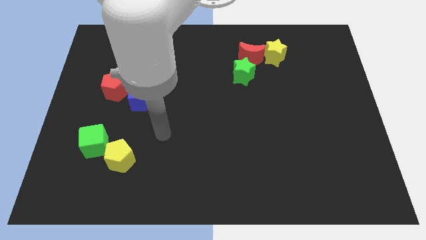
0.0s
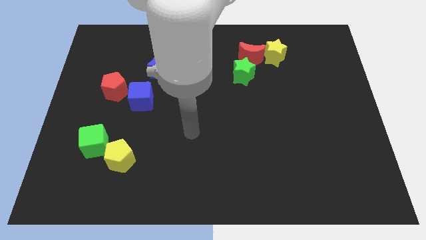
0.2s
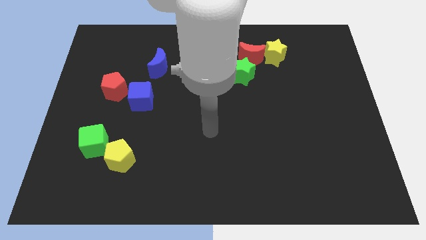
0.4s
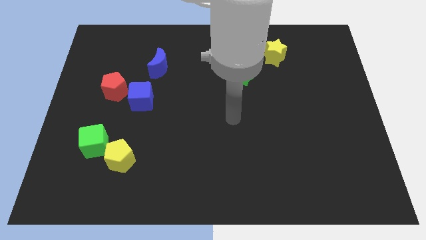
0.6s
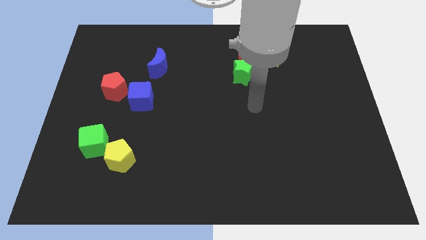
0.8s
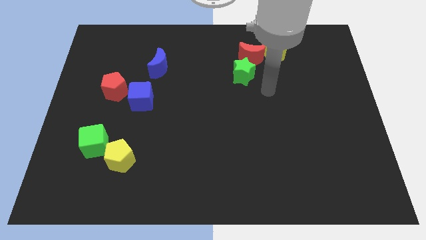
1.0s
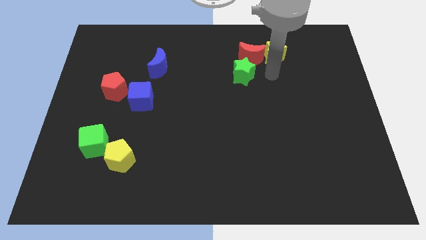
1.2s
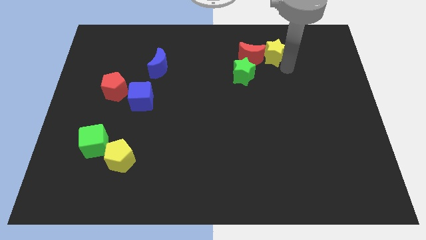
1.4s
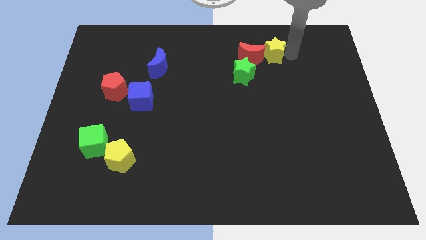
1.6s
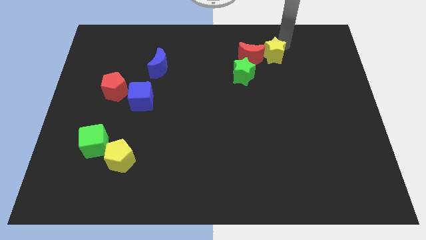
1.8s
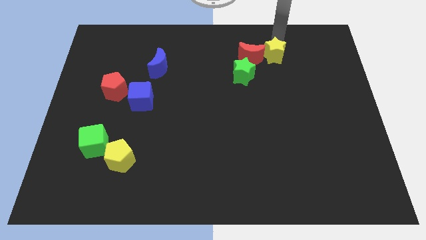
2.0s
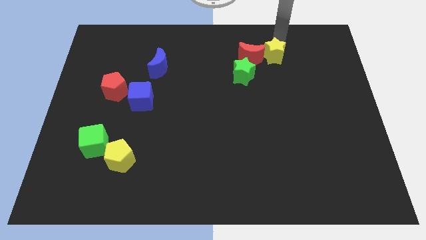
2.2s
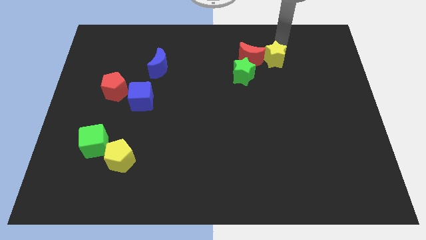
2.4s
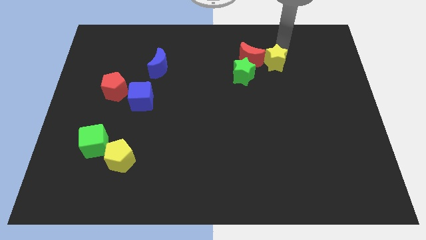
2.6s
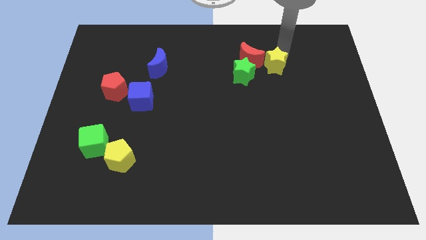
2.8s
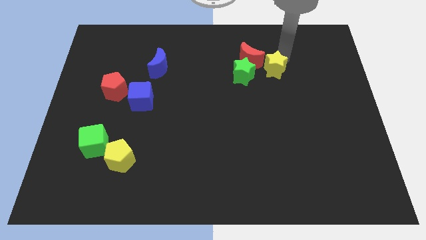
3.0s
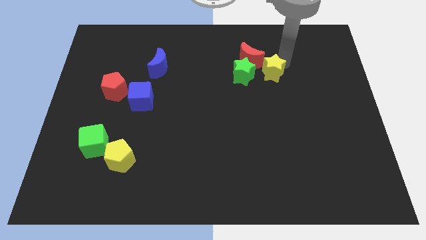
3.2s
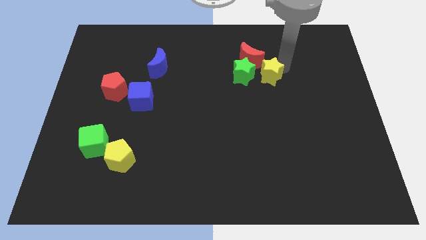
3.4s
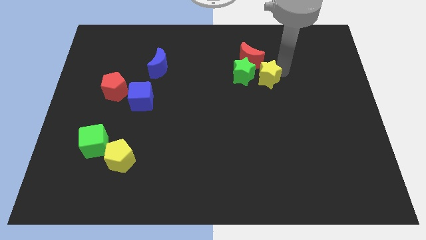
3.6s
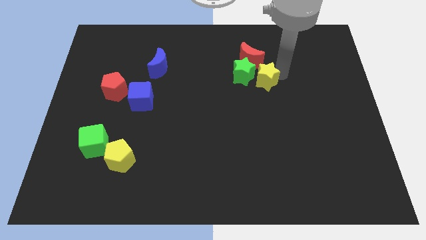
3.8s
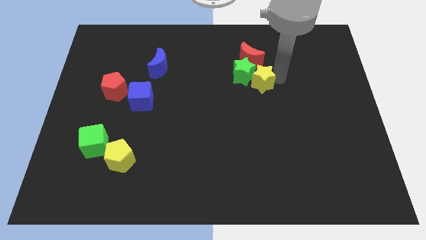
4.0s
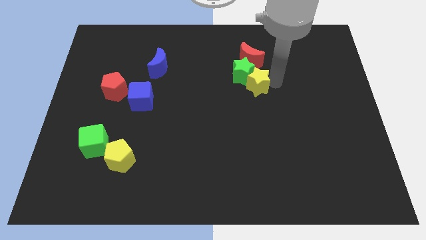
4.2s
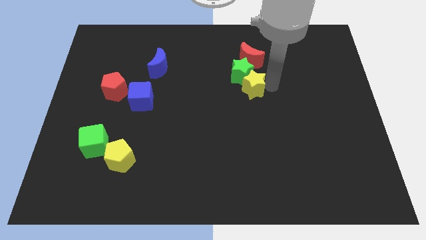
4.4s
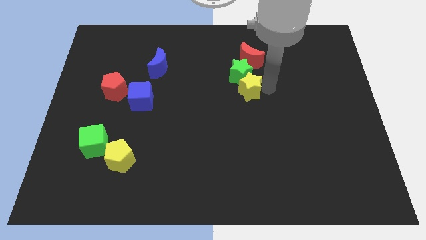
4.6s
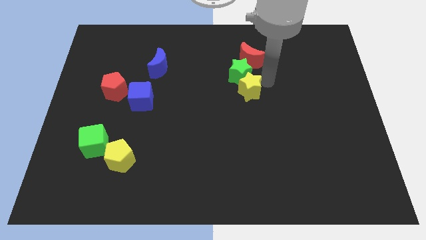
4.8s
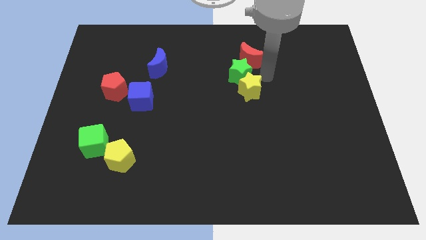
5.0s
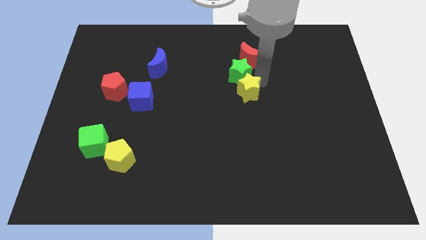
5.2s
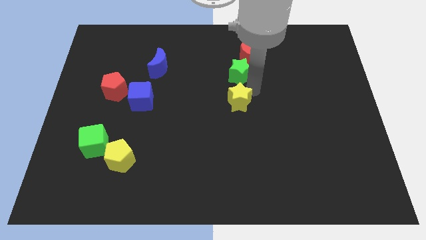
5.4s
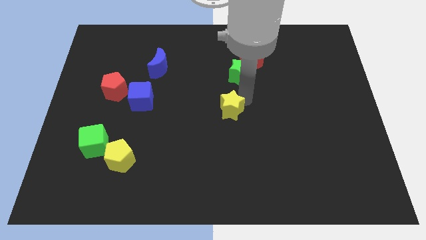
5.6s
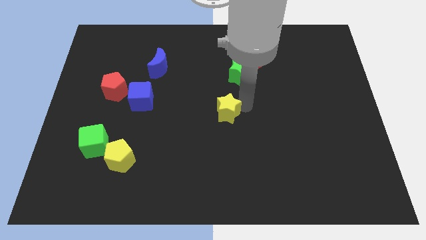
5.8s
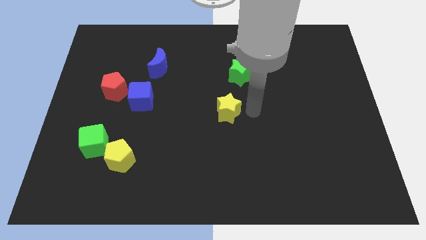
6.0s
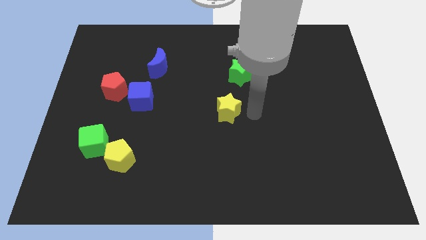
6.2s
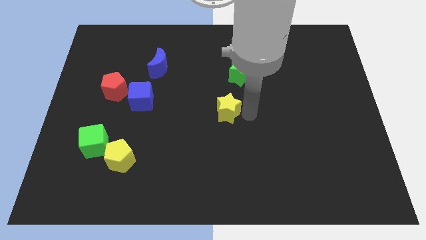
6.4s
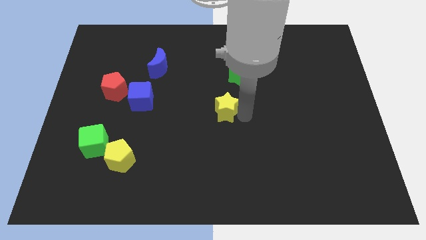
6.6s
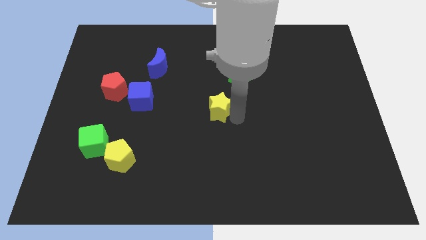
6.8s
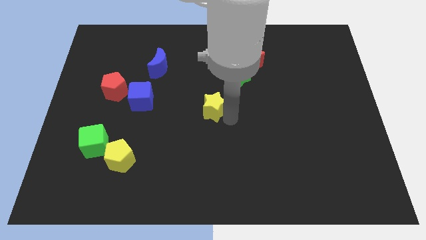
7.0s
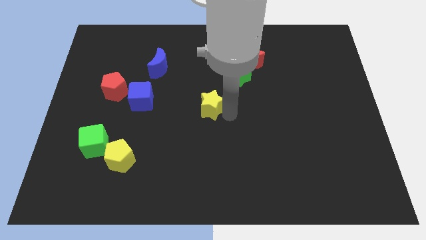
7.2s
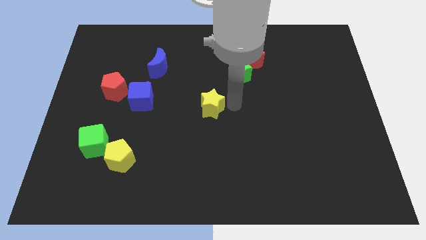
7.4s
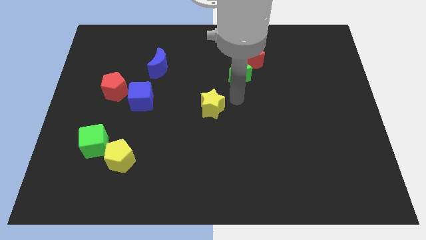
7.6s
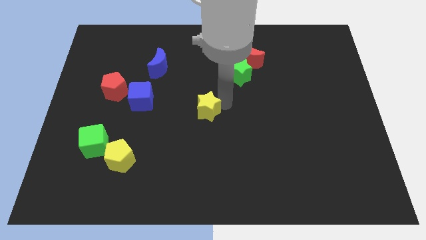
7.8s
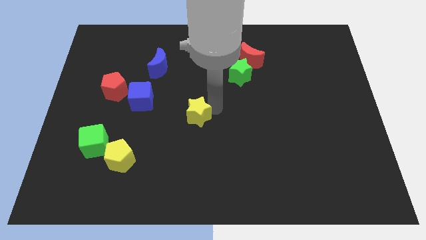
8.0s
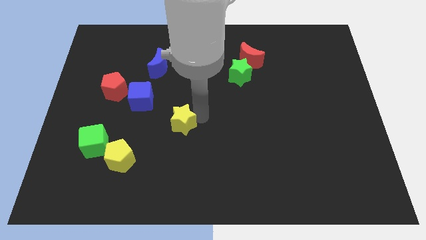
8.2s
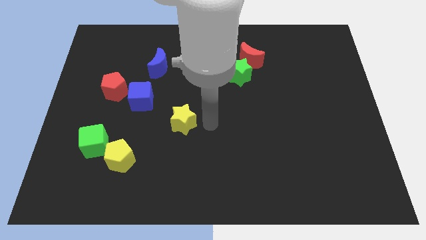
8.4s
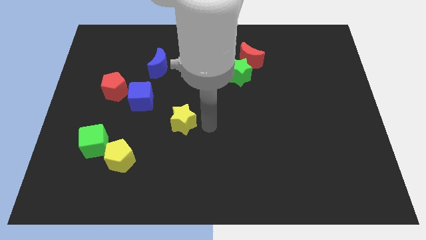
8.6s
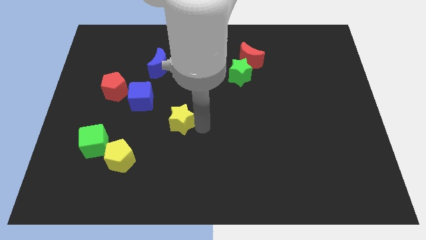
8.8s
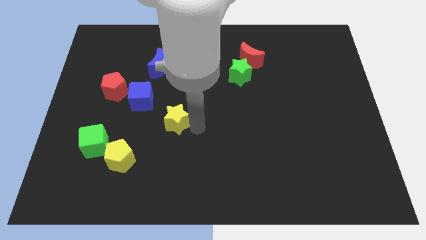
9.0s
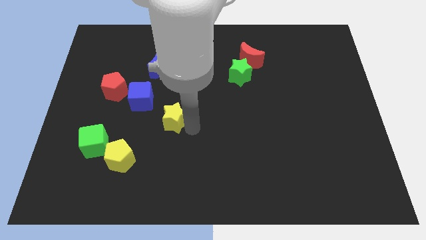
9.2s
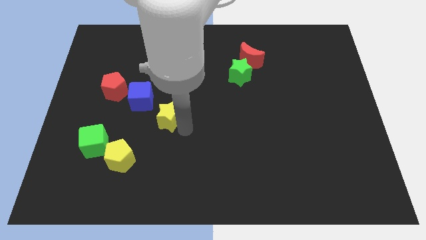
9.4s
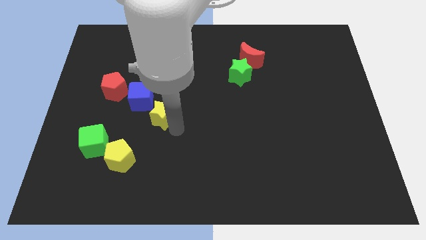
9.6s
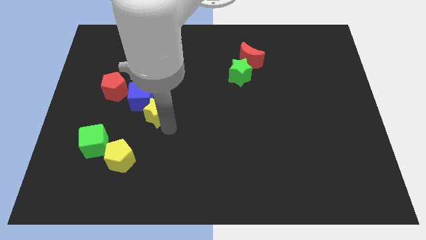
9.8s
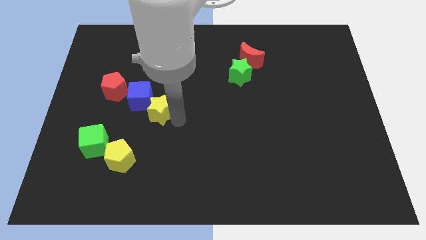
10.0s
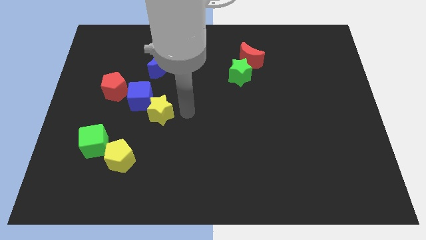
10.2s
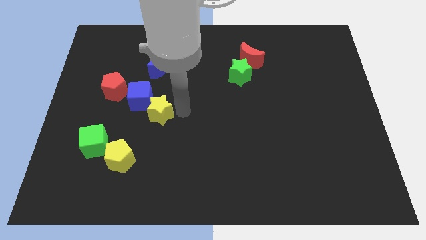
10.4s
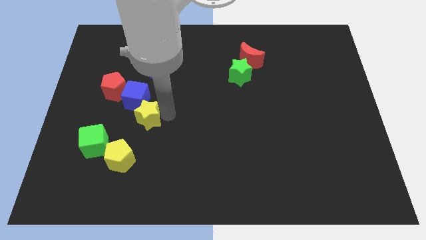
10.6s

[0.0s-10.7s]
put the yellow star to the top of the yellow pentagon

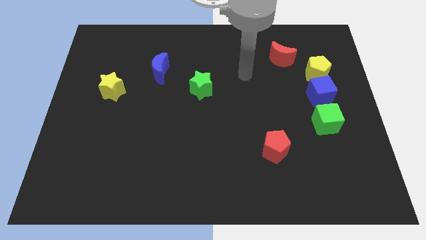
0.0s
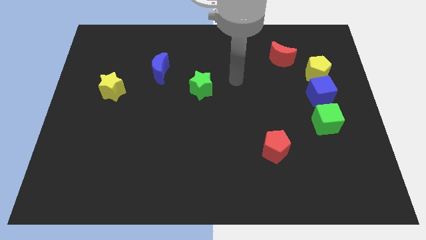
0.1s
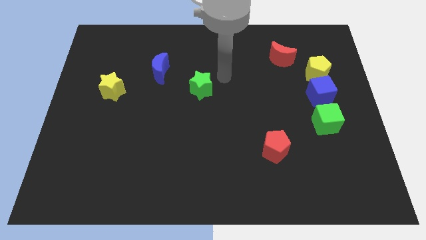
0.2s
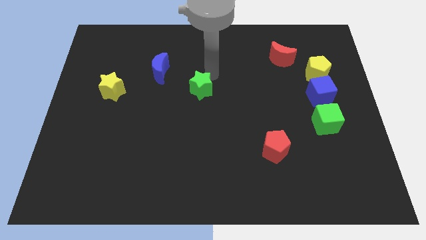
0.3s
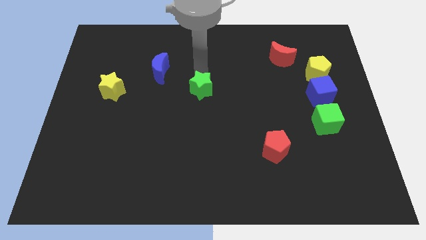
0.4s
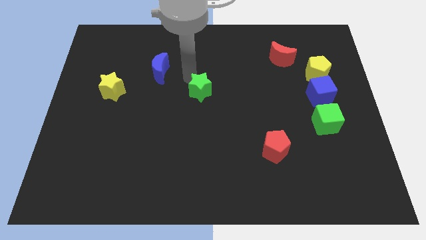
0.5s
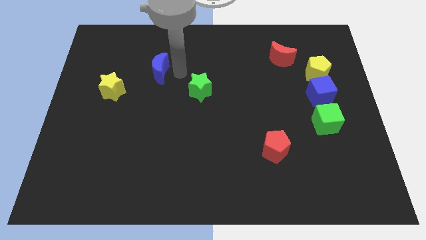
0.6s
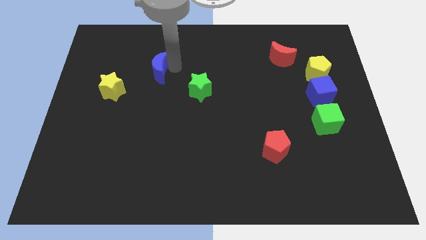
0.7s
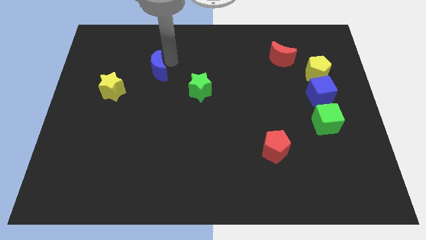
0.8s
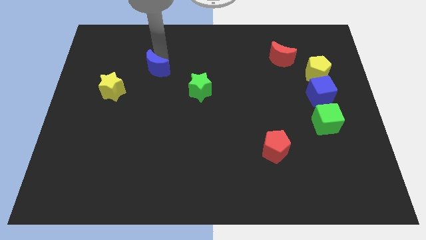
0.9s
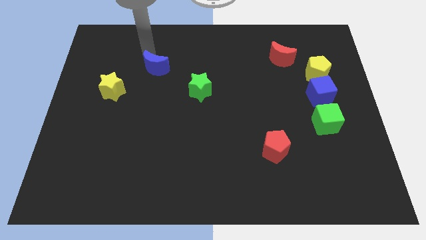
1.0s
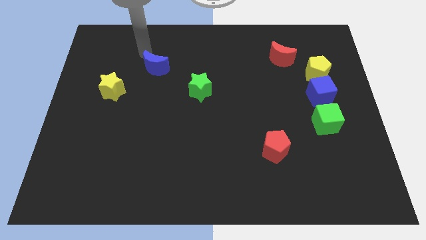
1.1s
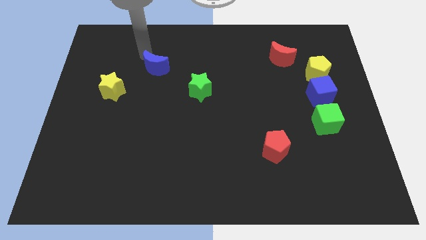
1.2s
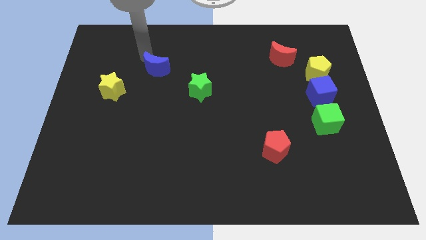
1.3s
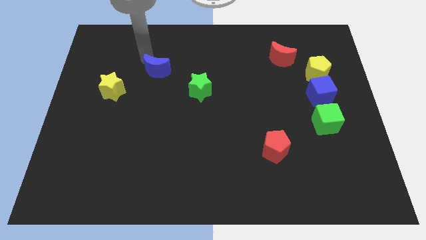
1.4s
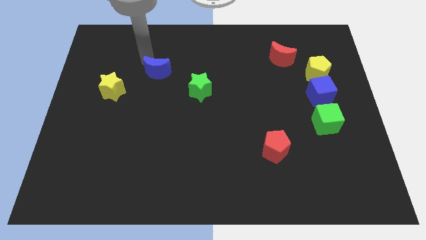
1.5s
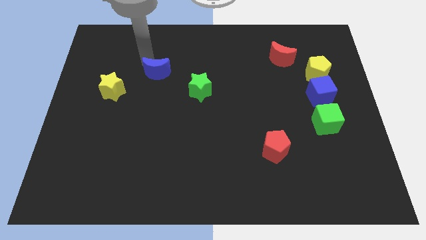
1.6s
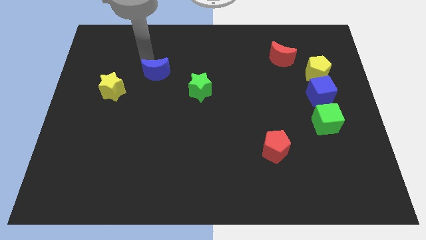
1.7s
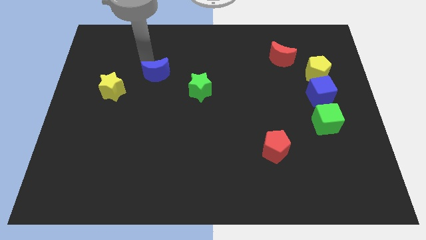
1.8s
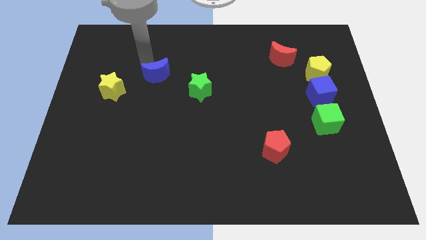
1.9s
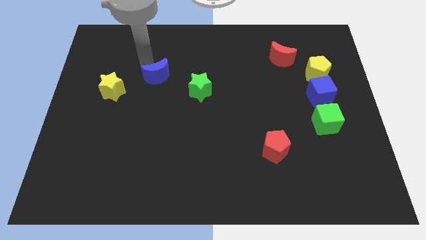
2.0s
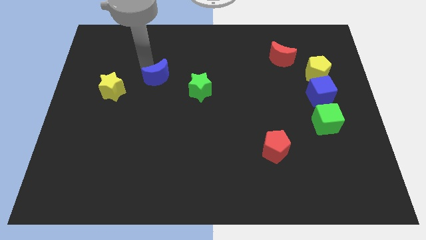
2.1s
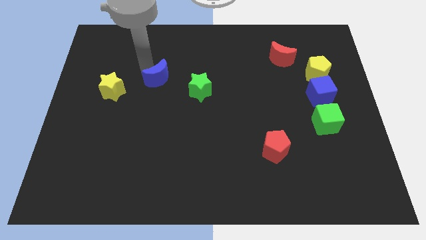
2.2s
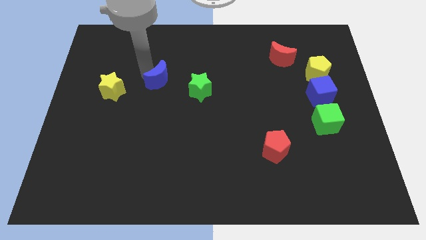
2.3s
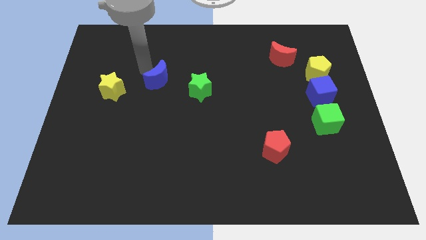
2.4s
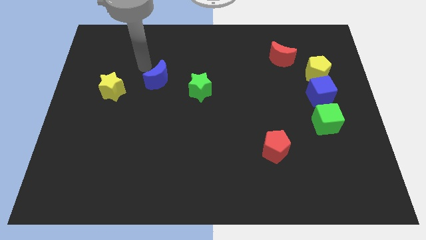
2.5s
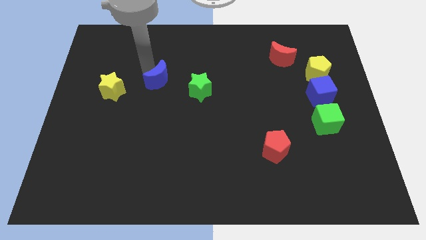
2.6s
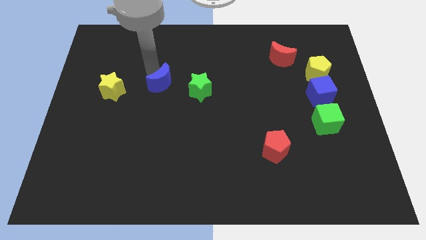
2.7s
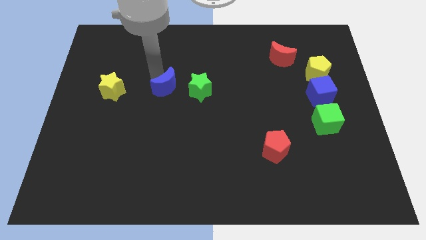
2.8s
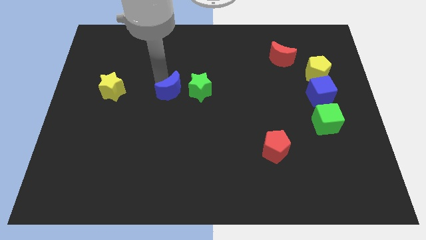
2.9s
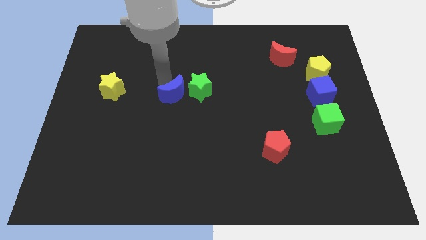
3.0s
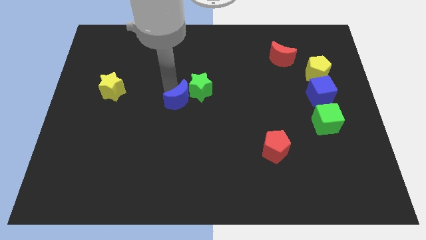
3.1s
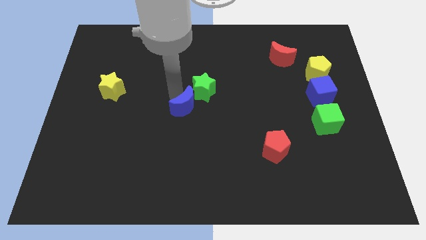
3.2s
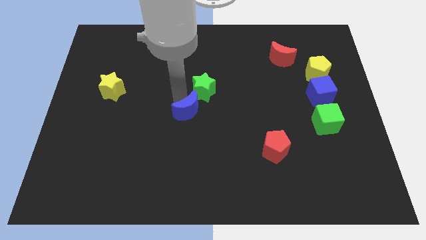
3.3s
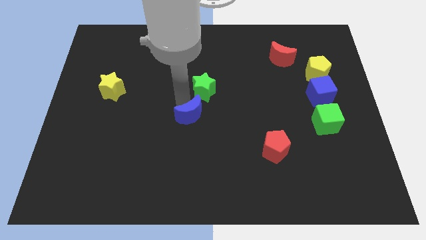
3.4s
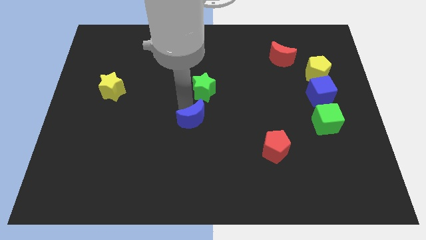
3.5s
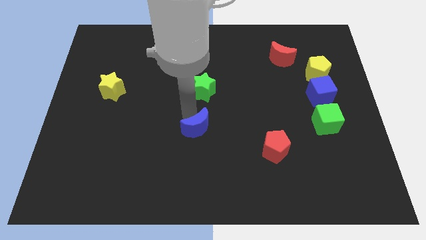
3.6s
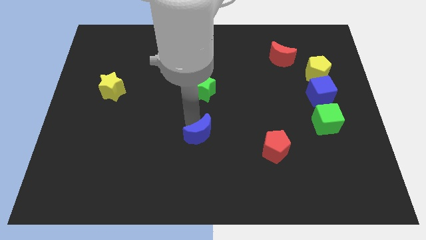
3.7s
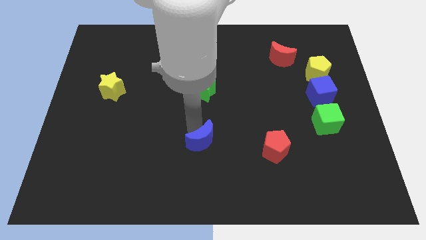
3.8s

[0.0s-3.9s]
put the blue moon left of the red pentagon
